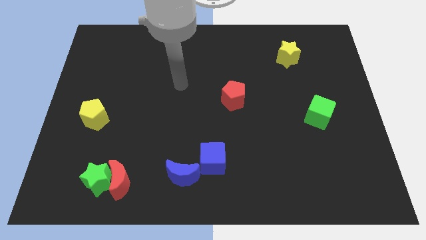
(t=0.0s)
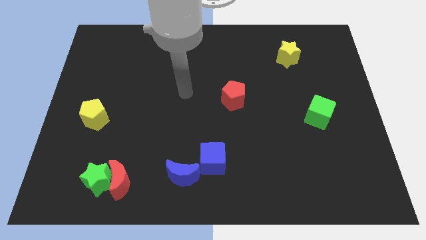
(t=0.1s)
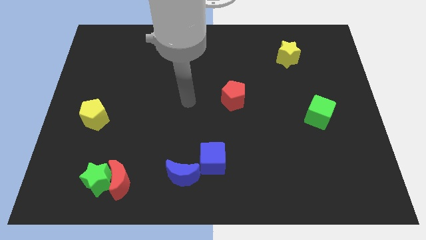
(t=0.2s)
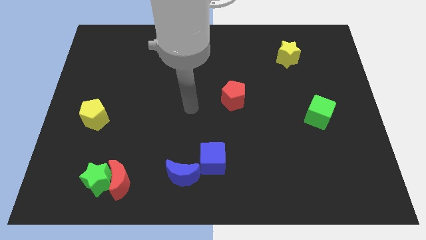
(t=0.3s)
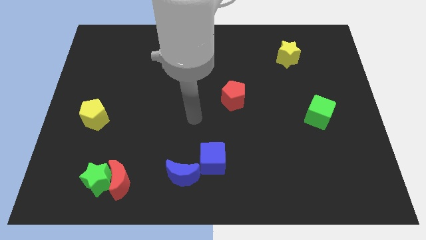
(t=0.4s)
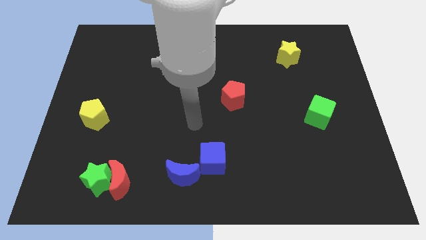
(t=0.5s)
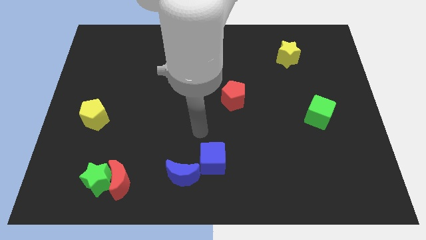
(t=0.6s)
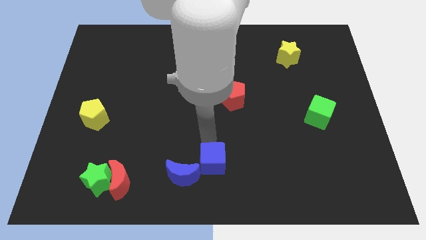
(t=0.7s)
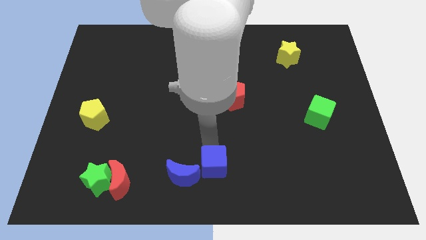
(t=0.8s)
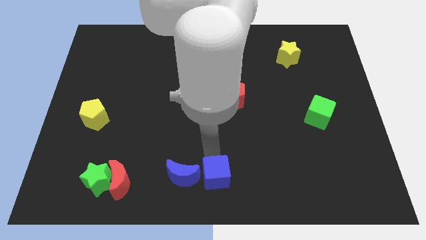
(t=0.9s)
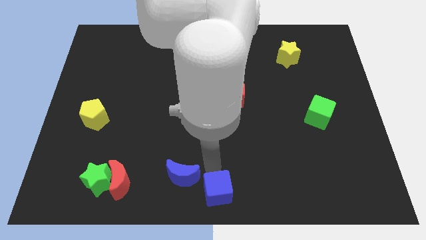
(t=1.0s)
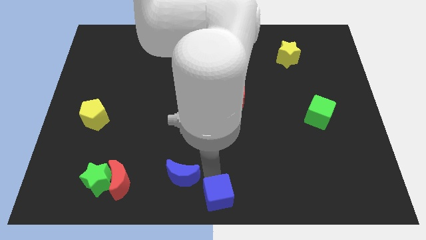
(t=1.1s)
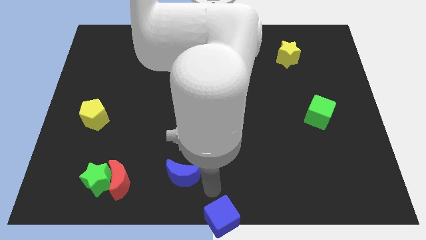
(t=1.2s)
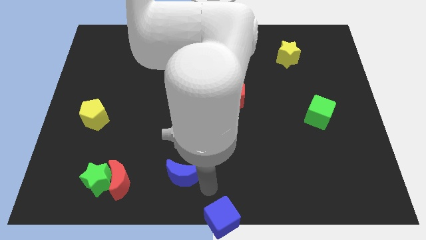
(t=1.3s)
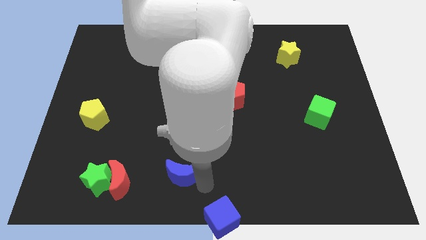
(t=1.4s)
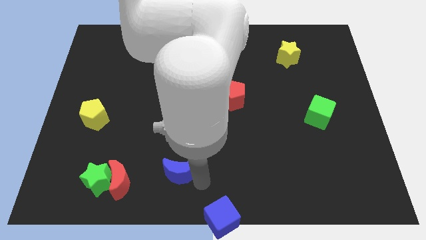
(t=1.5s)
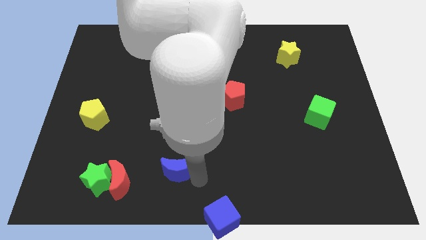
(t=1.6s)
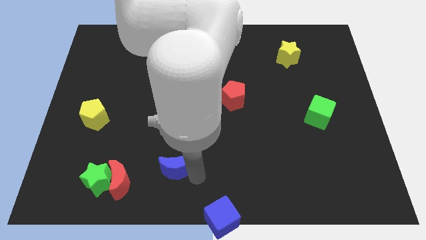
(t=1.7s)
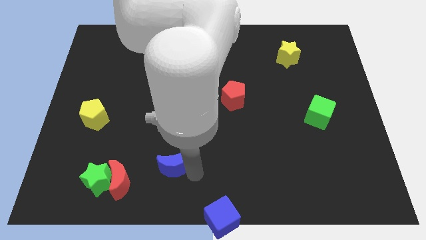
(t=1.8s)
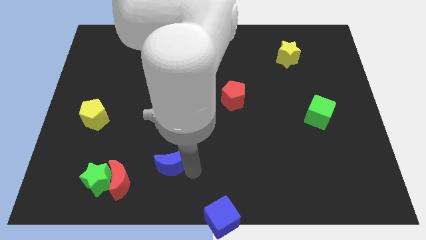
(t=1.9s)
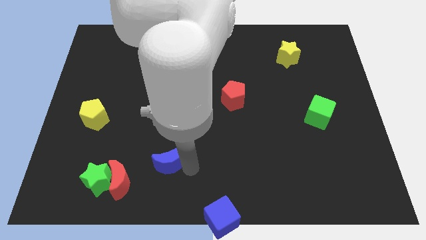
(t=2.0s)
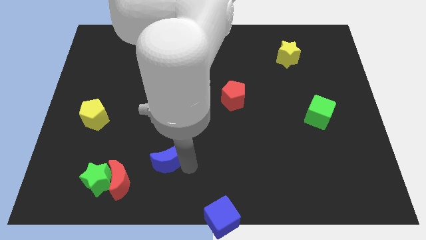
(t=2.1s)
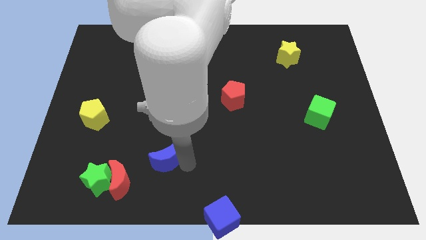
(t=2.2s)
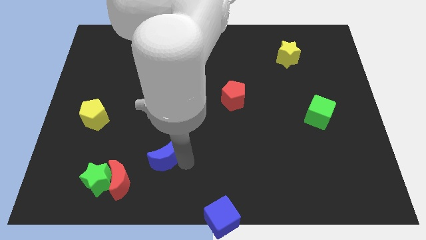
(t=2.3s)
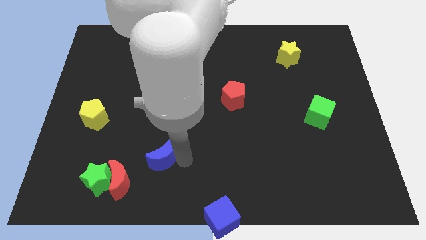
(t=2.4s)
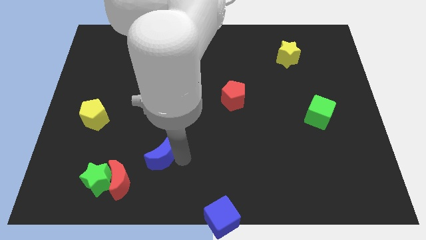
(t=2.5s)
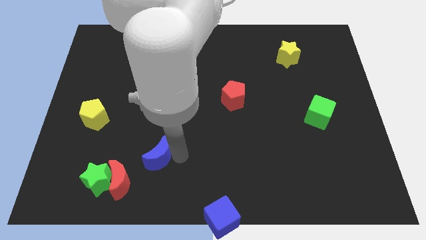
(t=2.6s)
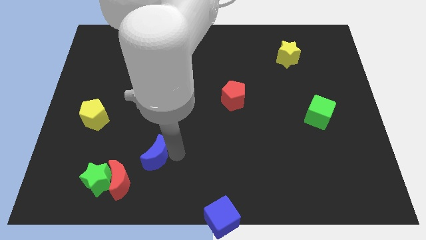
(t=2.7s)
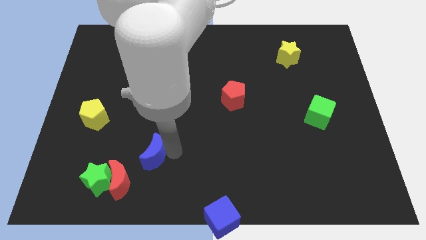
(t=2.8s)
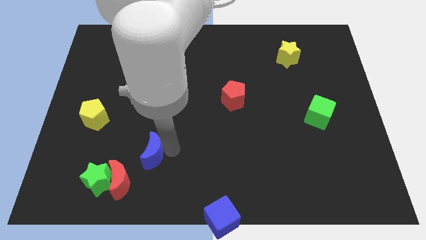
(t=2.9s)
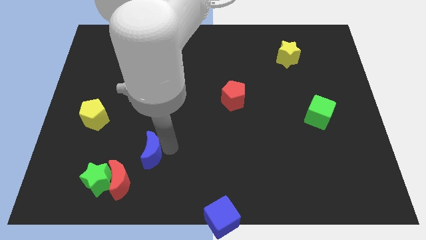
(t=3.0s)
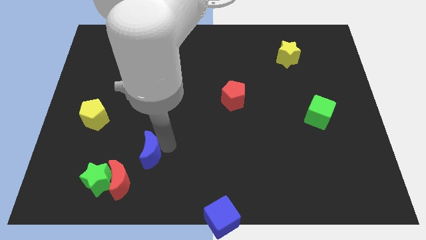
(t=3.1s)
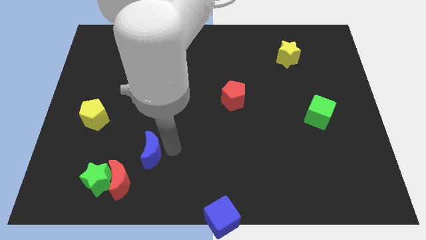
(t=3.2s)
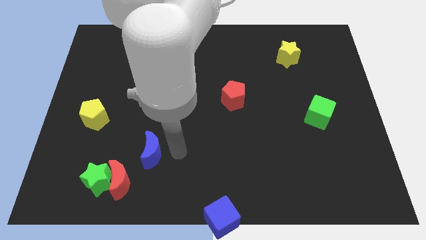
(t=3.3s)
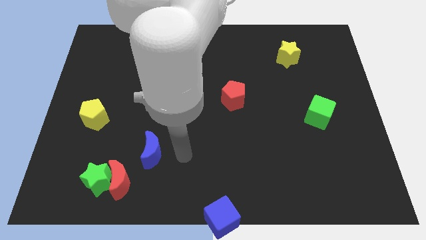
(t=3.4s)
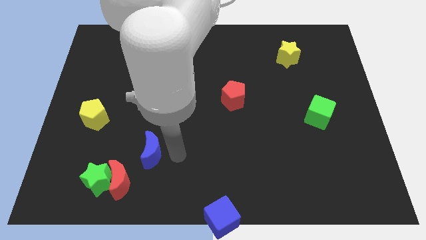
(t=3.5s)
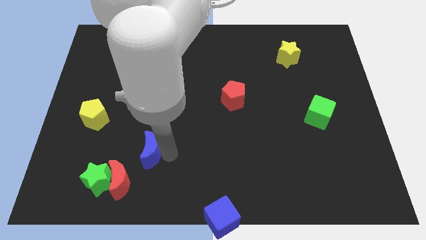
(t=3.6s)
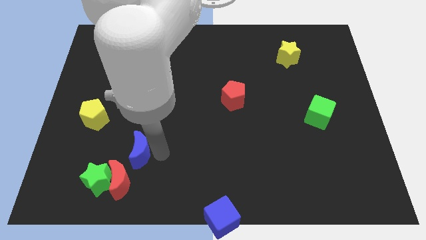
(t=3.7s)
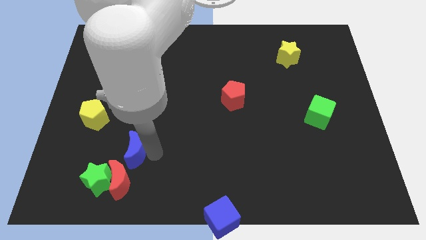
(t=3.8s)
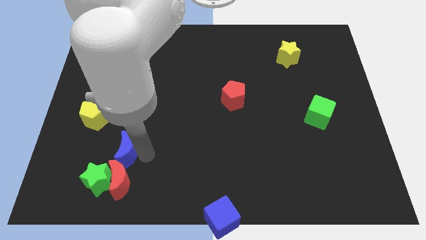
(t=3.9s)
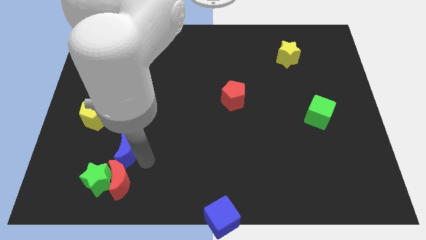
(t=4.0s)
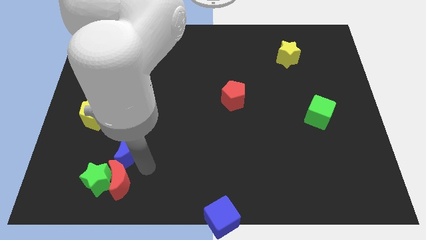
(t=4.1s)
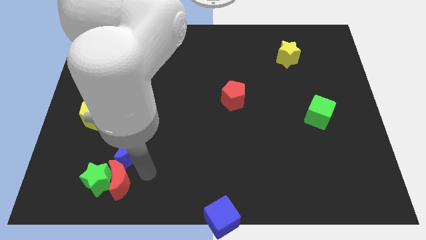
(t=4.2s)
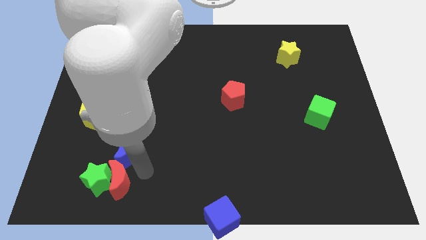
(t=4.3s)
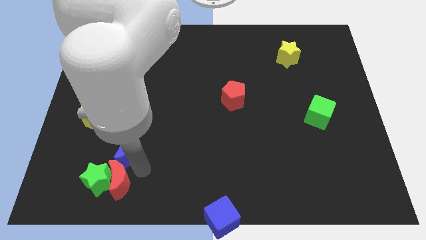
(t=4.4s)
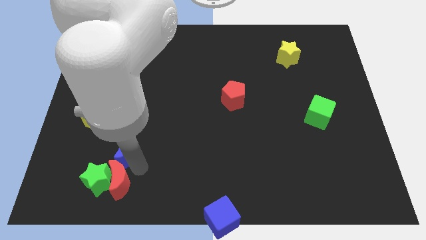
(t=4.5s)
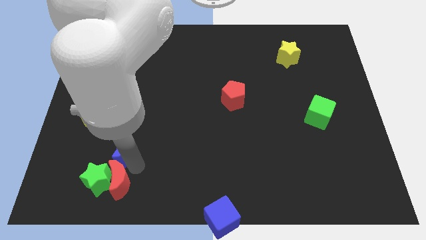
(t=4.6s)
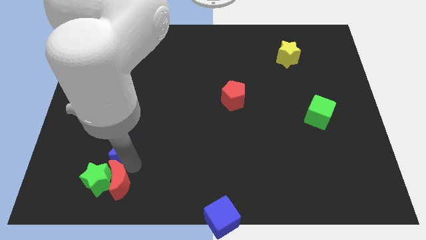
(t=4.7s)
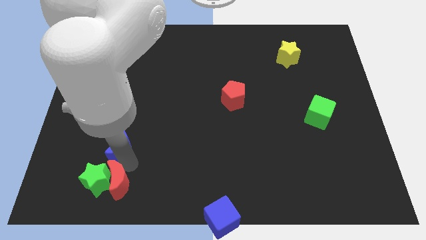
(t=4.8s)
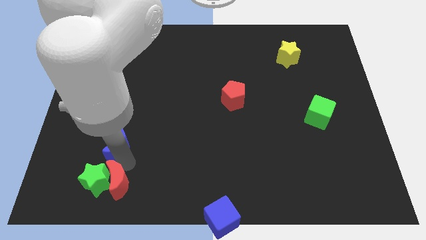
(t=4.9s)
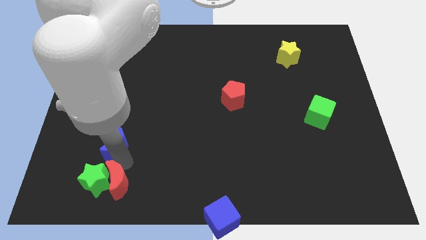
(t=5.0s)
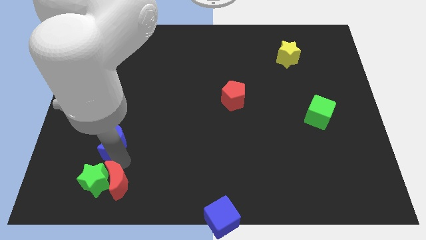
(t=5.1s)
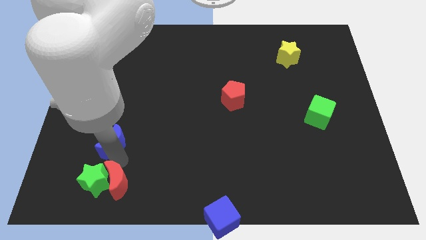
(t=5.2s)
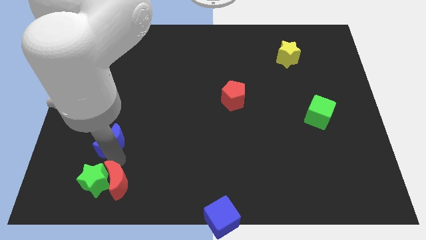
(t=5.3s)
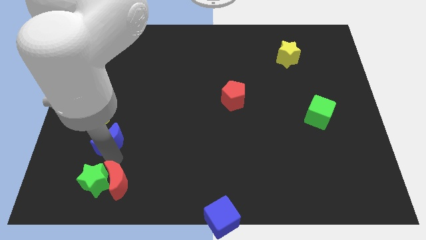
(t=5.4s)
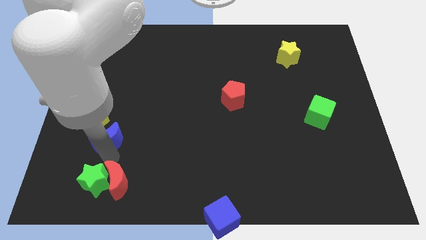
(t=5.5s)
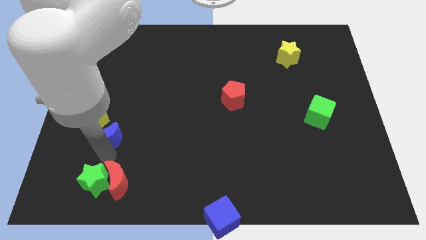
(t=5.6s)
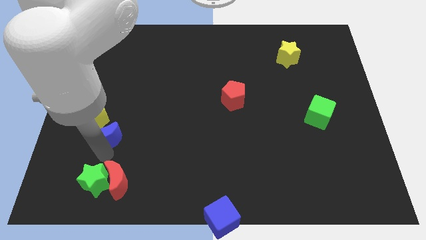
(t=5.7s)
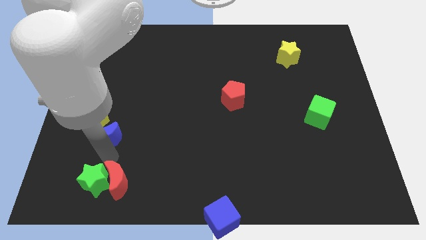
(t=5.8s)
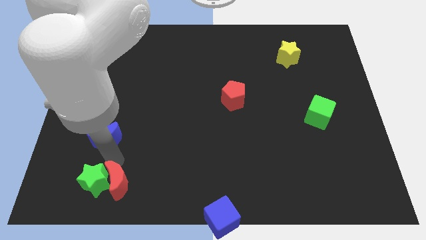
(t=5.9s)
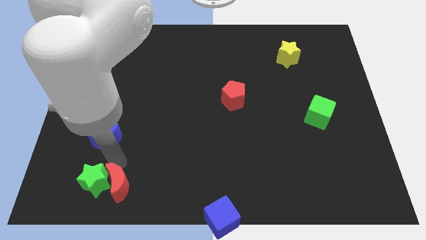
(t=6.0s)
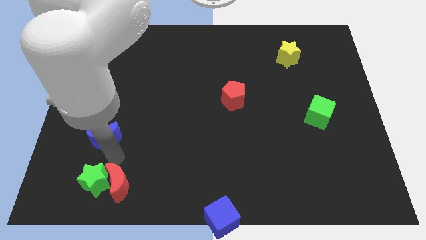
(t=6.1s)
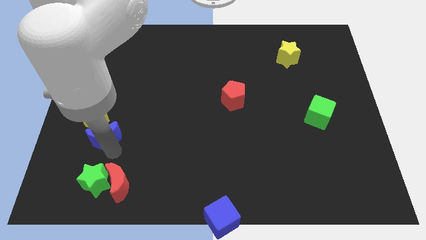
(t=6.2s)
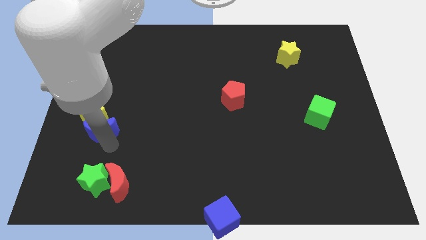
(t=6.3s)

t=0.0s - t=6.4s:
slide the blue moon to the yellow pentagon
